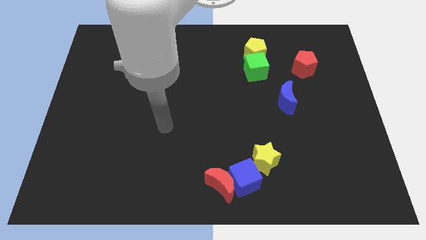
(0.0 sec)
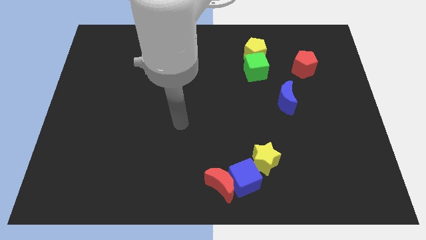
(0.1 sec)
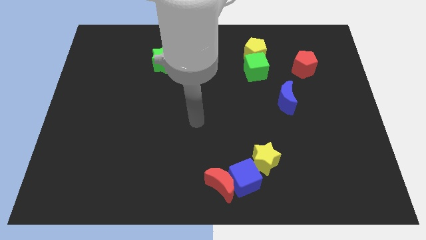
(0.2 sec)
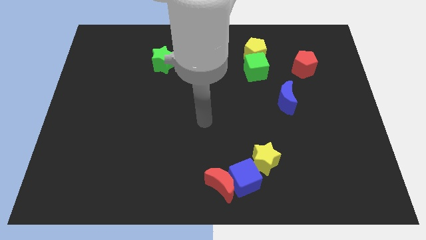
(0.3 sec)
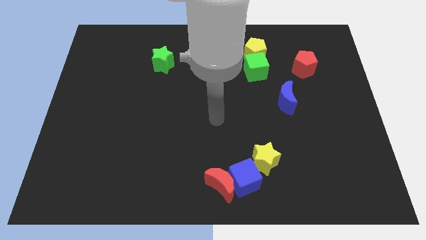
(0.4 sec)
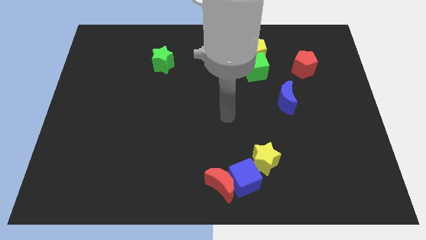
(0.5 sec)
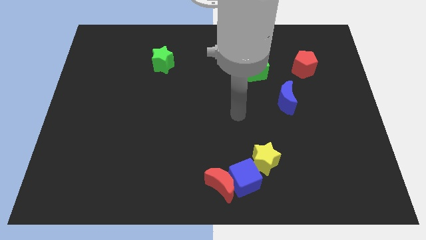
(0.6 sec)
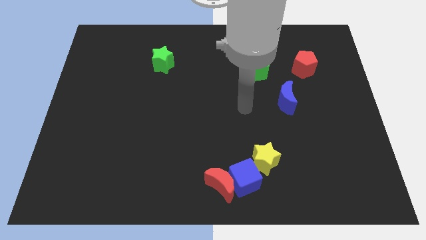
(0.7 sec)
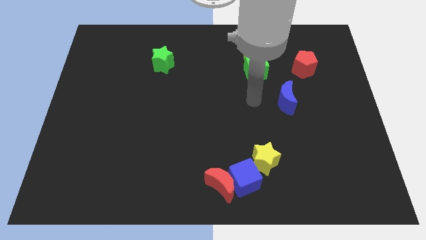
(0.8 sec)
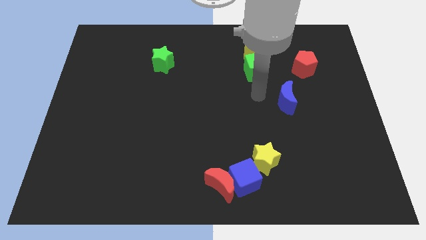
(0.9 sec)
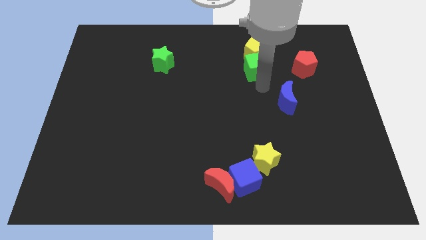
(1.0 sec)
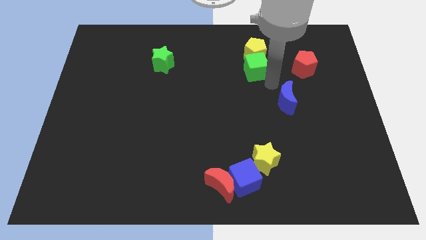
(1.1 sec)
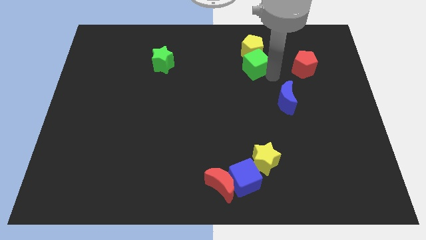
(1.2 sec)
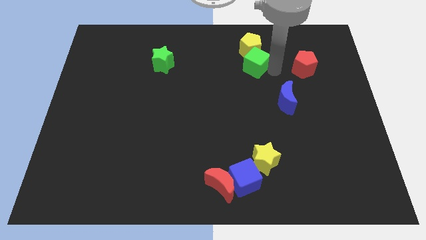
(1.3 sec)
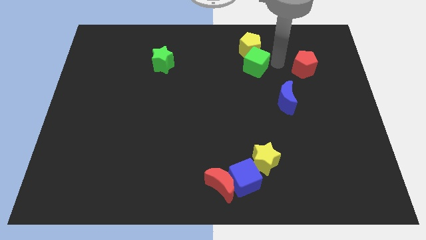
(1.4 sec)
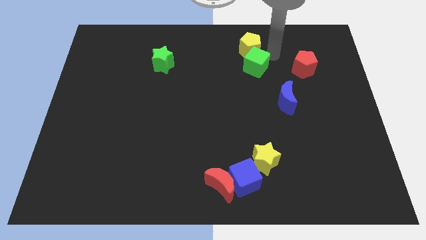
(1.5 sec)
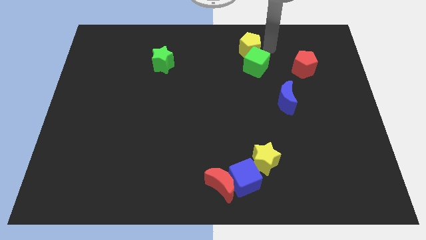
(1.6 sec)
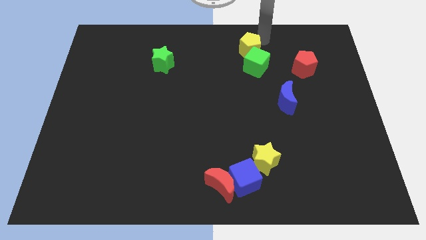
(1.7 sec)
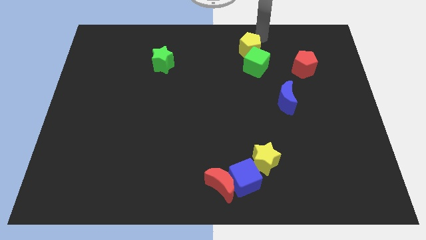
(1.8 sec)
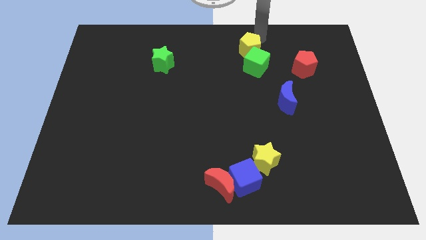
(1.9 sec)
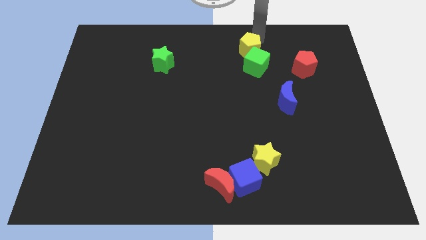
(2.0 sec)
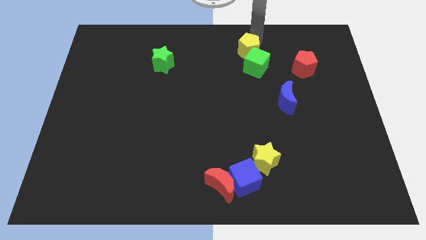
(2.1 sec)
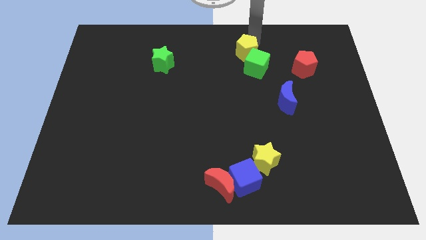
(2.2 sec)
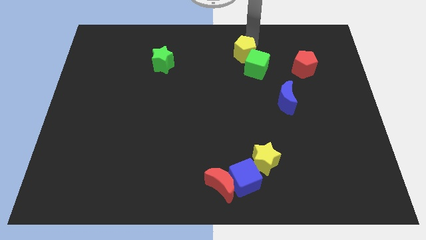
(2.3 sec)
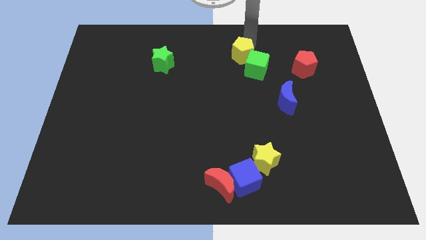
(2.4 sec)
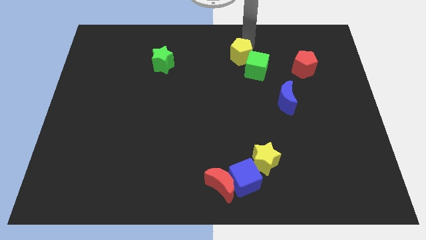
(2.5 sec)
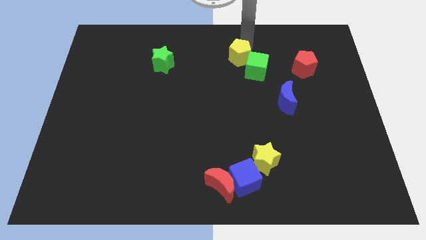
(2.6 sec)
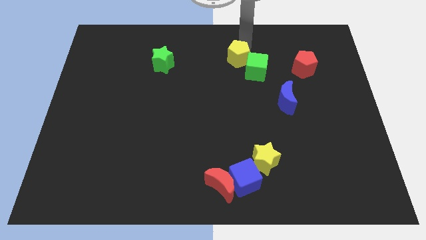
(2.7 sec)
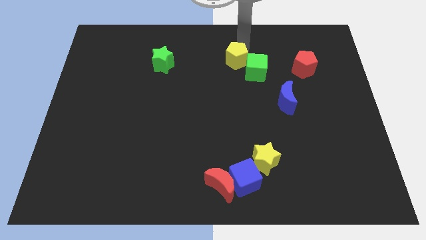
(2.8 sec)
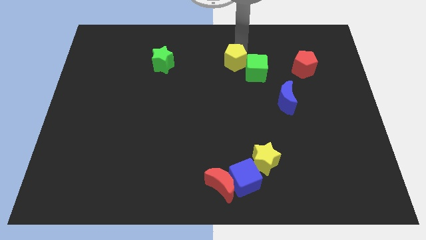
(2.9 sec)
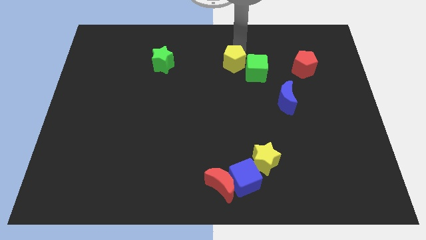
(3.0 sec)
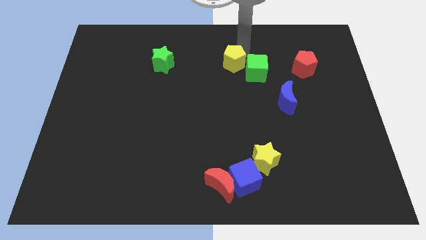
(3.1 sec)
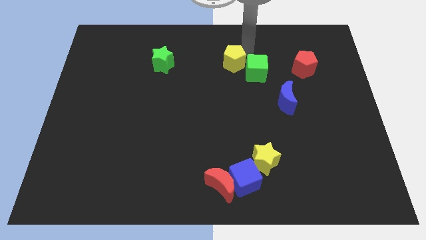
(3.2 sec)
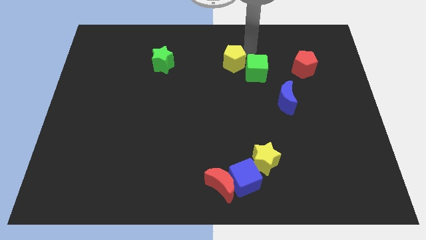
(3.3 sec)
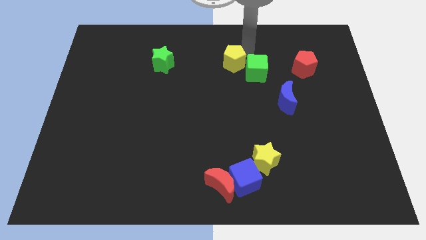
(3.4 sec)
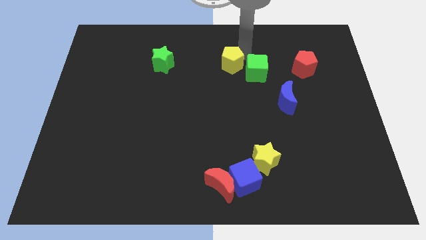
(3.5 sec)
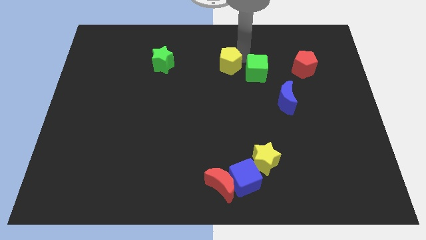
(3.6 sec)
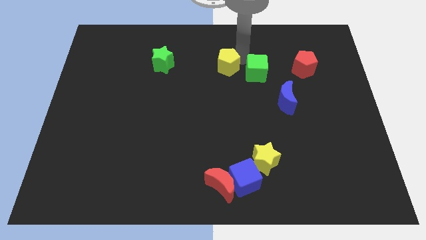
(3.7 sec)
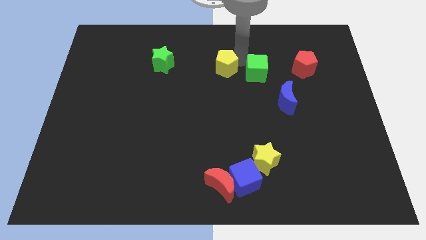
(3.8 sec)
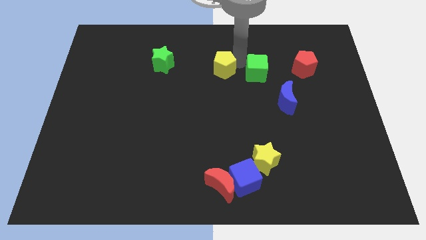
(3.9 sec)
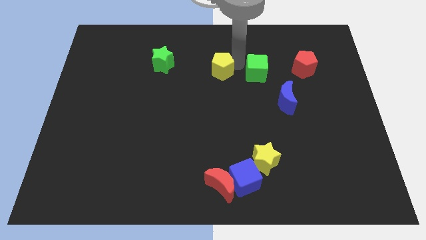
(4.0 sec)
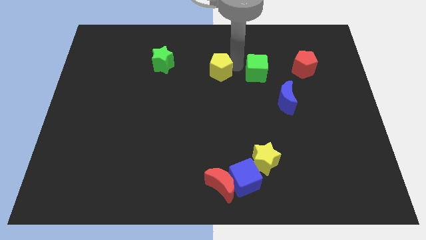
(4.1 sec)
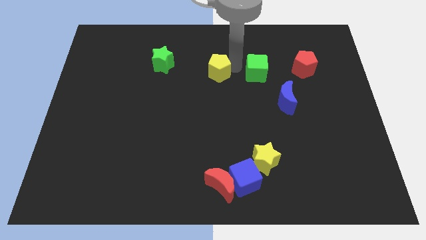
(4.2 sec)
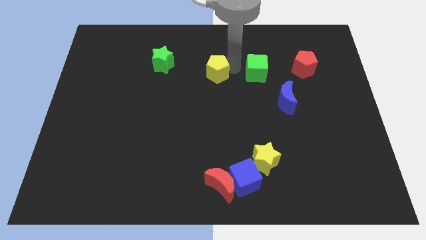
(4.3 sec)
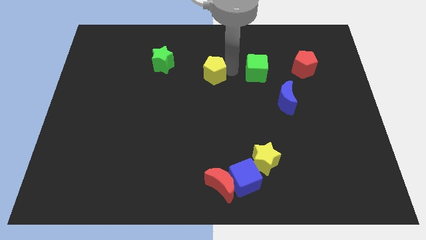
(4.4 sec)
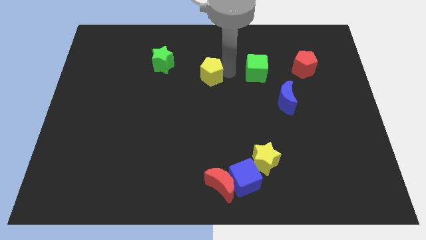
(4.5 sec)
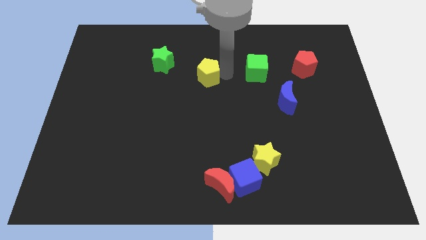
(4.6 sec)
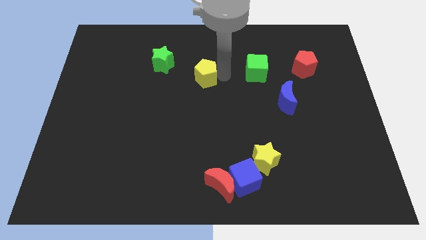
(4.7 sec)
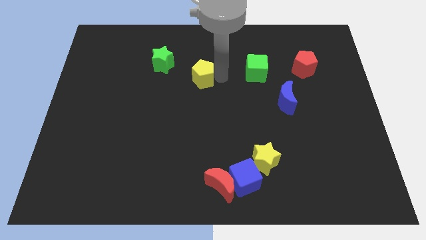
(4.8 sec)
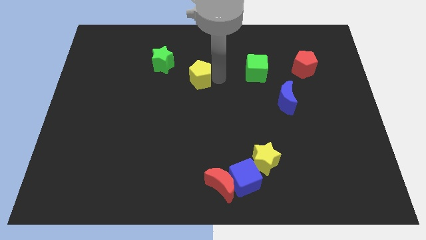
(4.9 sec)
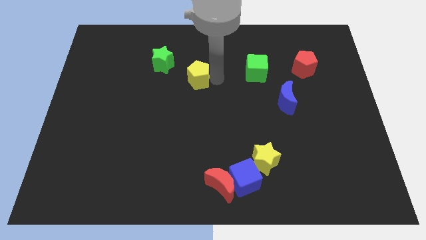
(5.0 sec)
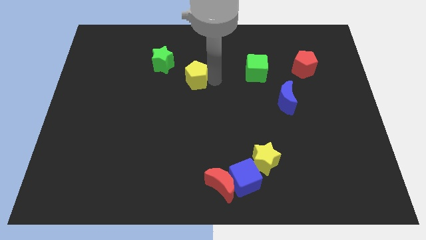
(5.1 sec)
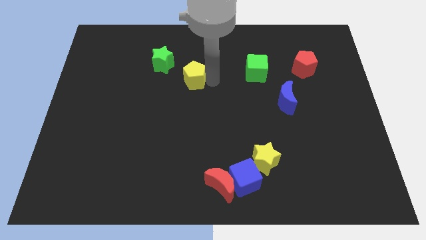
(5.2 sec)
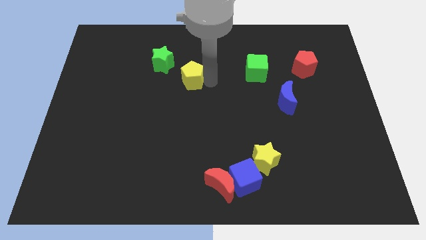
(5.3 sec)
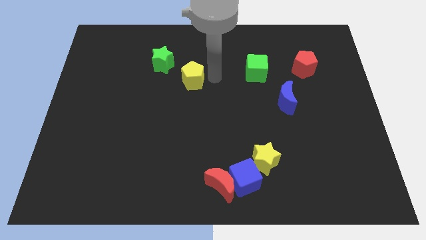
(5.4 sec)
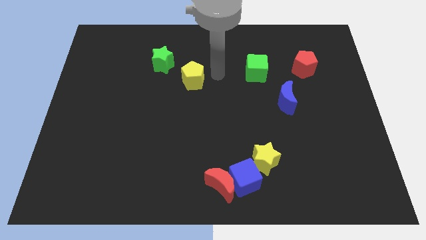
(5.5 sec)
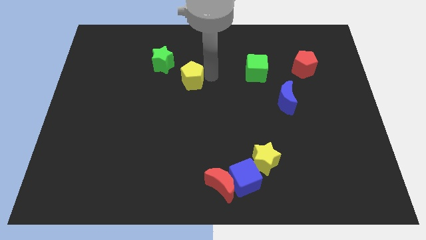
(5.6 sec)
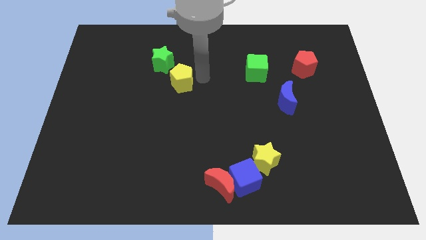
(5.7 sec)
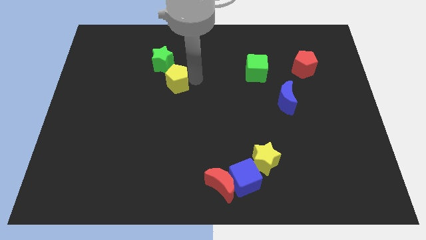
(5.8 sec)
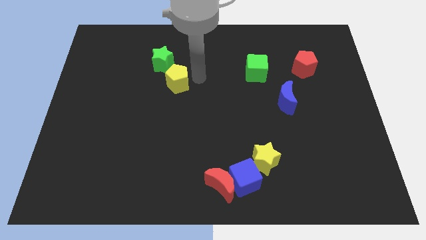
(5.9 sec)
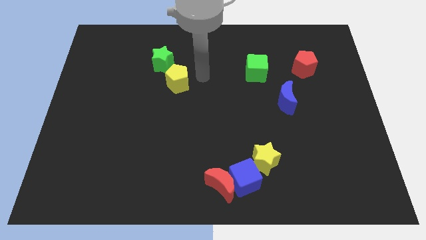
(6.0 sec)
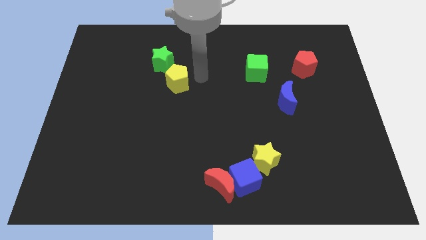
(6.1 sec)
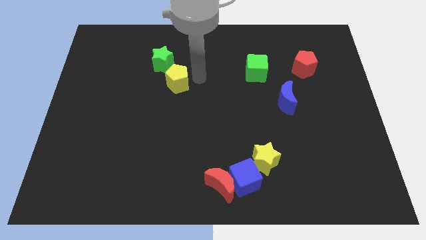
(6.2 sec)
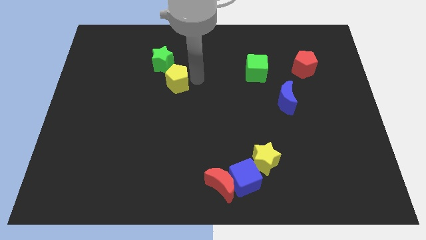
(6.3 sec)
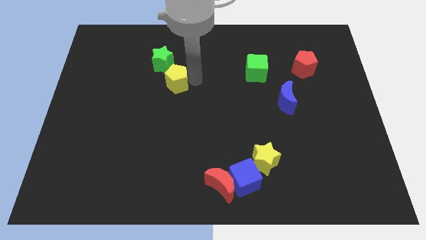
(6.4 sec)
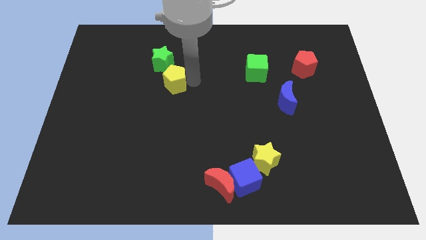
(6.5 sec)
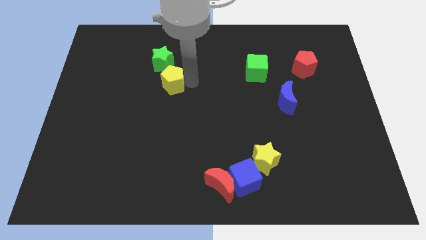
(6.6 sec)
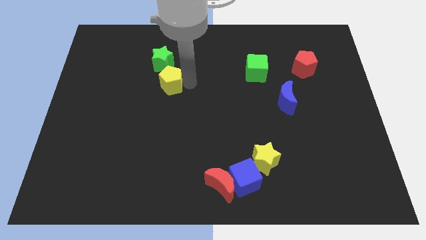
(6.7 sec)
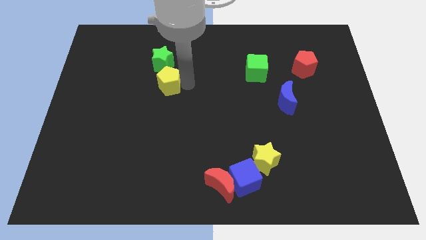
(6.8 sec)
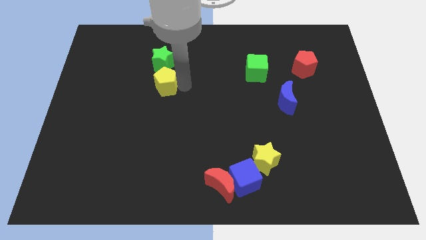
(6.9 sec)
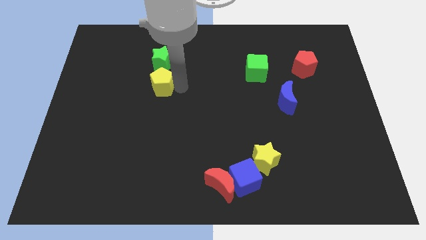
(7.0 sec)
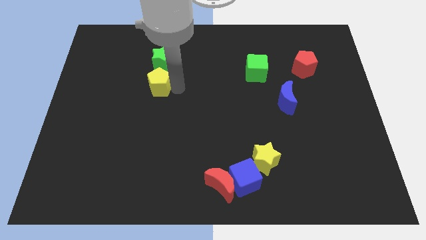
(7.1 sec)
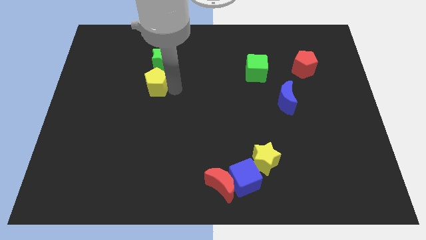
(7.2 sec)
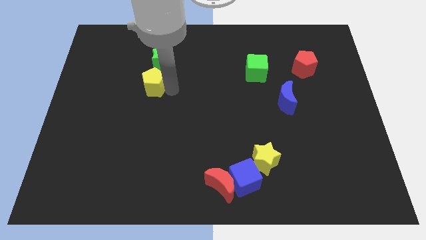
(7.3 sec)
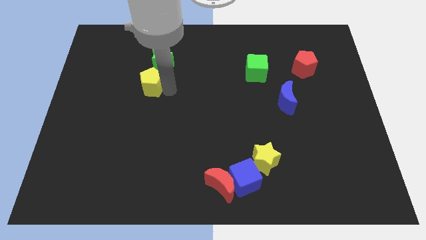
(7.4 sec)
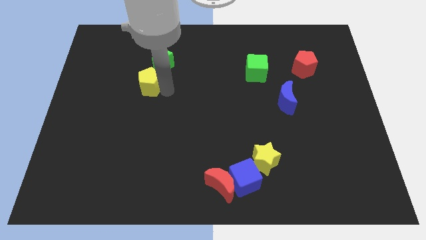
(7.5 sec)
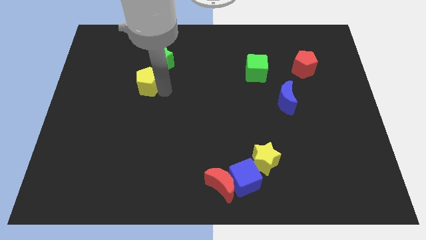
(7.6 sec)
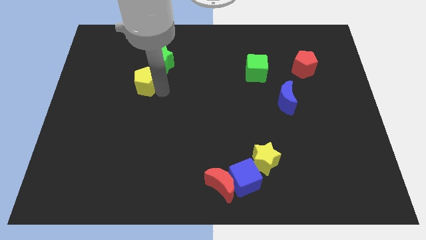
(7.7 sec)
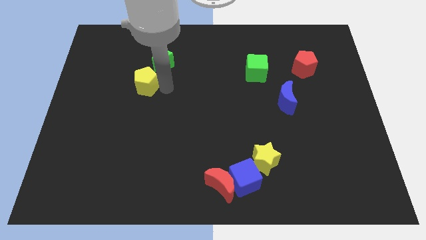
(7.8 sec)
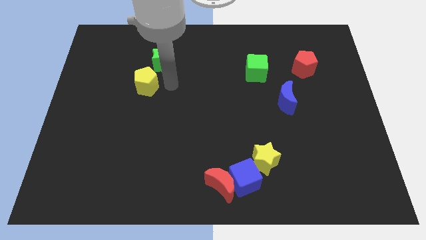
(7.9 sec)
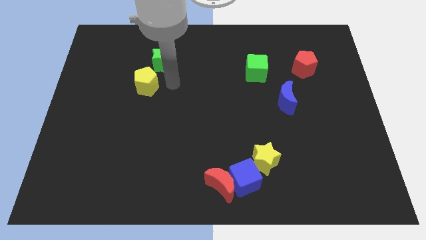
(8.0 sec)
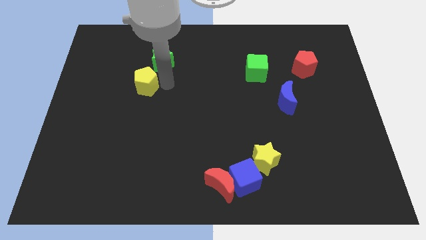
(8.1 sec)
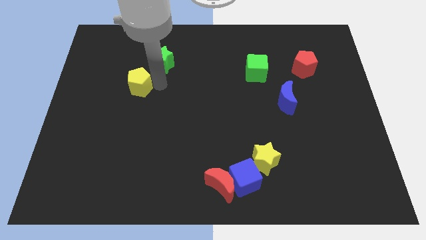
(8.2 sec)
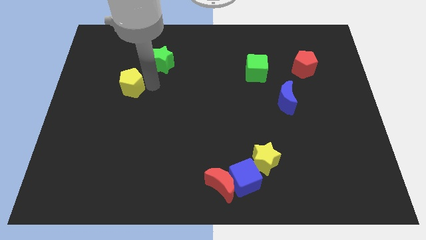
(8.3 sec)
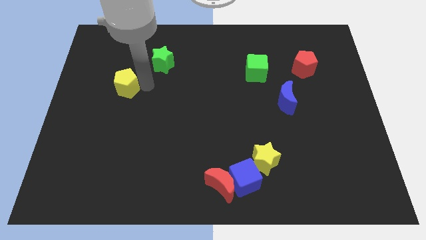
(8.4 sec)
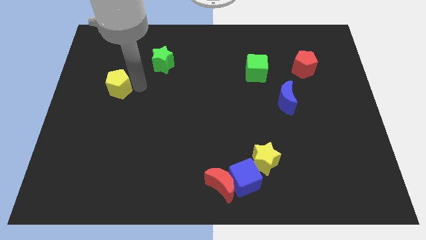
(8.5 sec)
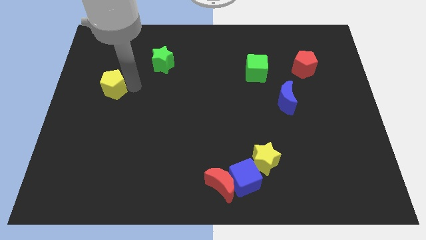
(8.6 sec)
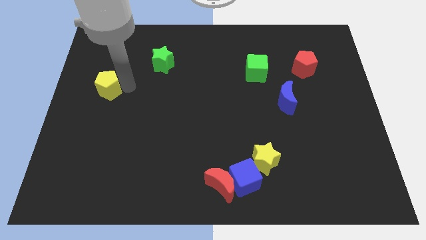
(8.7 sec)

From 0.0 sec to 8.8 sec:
slide the yellow pentagon to the left side
